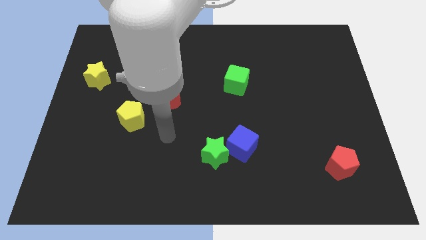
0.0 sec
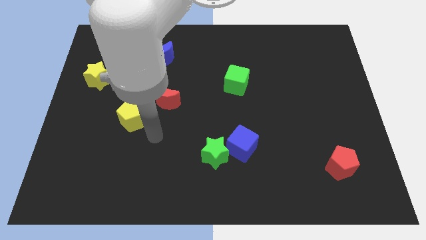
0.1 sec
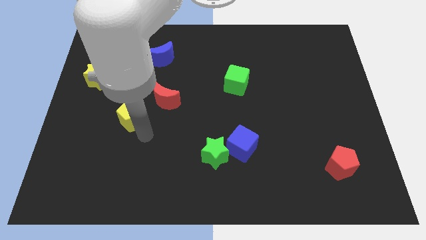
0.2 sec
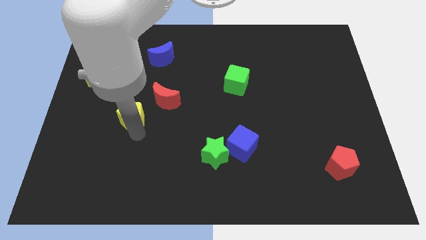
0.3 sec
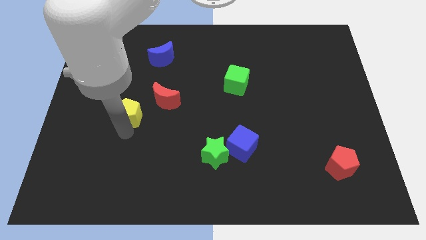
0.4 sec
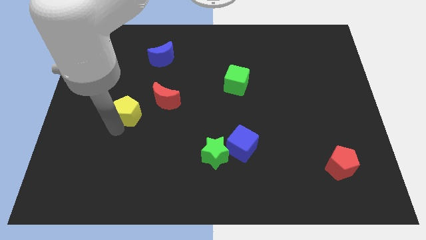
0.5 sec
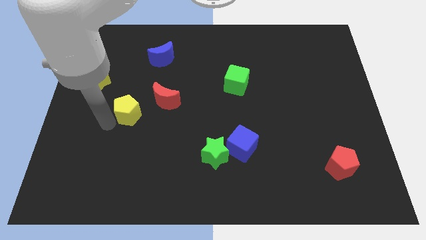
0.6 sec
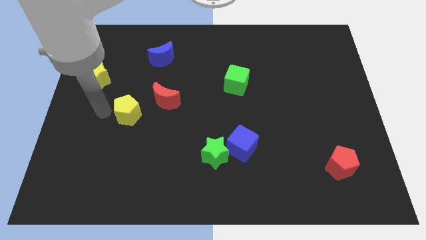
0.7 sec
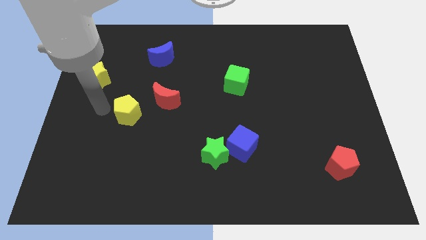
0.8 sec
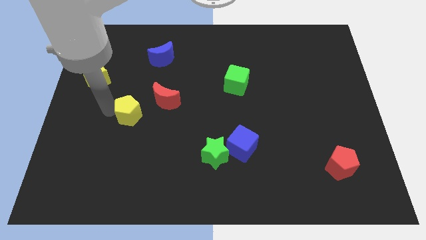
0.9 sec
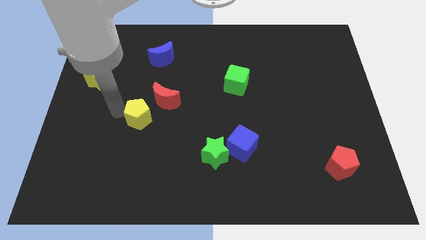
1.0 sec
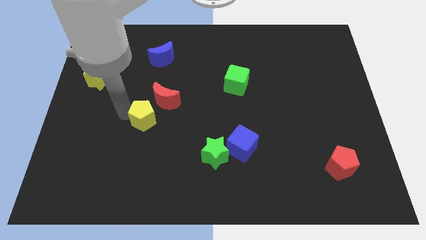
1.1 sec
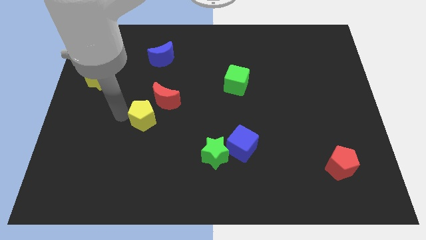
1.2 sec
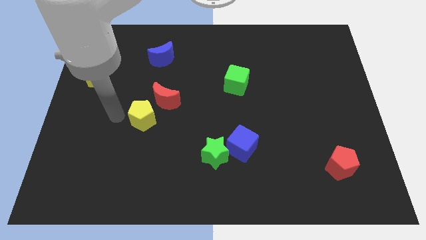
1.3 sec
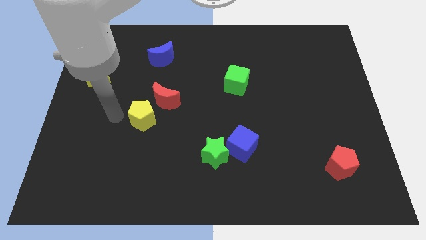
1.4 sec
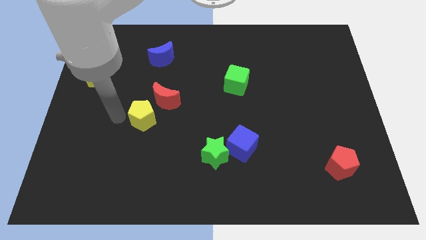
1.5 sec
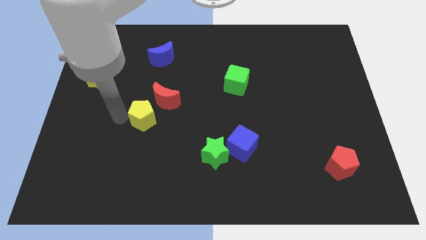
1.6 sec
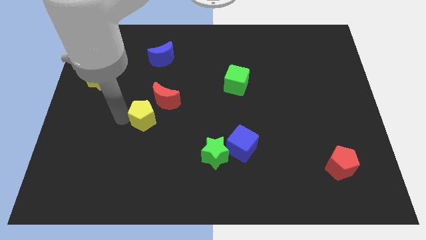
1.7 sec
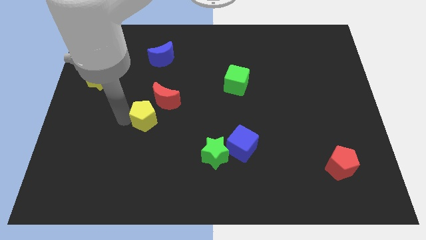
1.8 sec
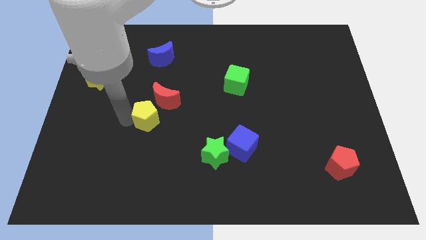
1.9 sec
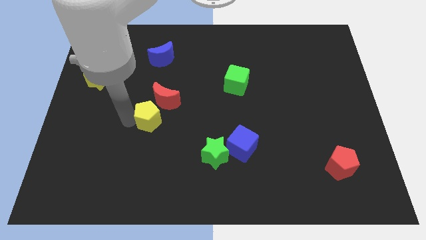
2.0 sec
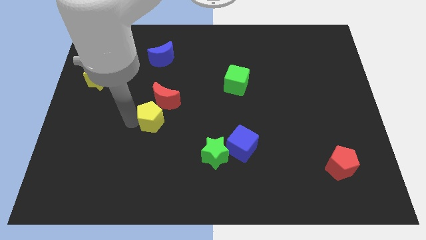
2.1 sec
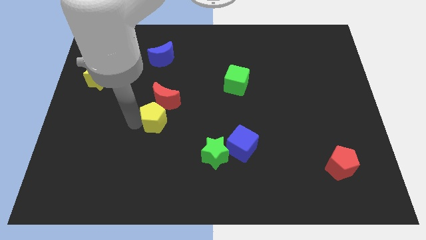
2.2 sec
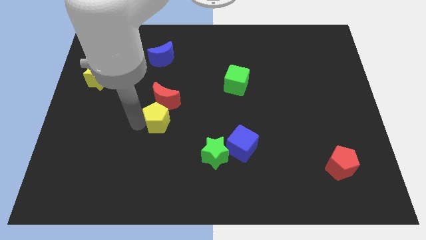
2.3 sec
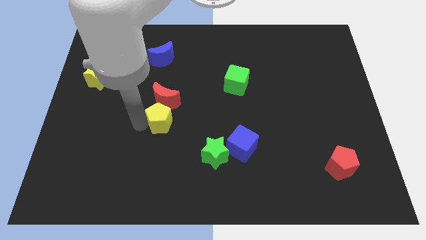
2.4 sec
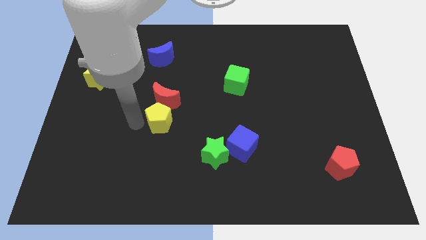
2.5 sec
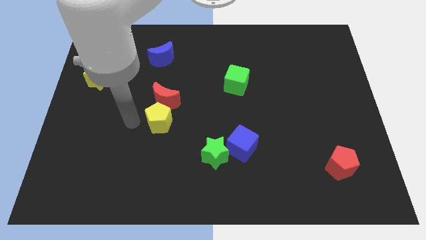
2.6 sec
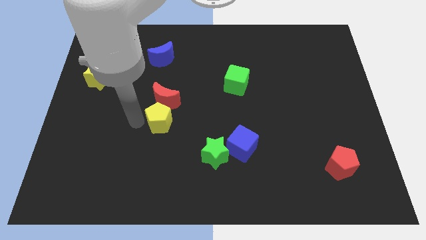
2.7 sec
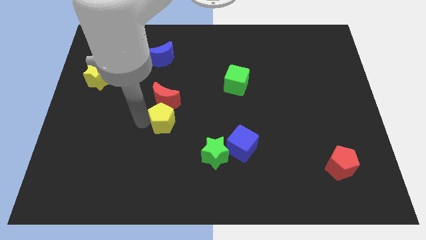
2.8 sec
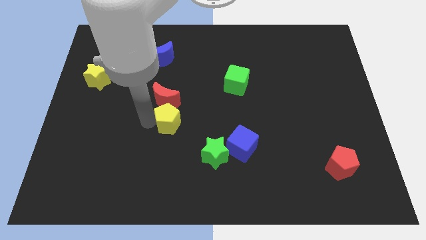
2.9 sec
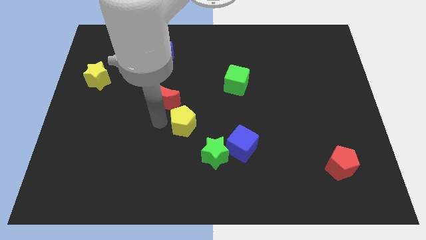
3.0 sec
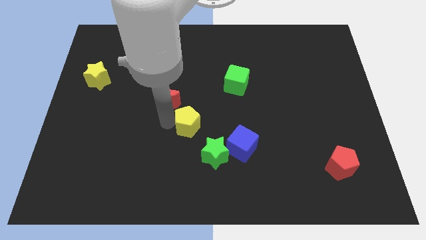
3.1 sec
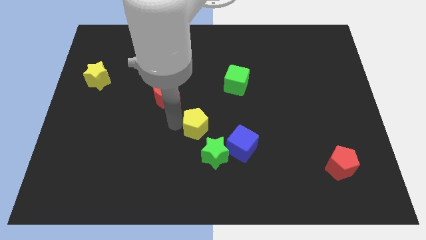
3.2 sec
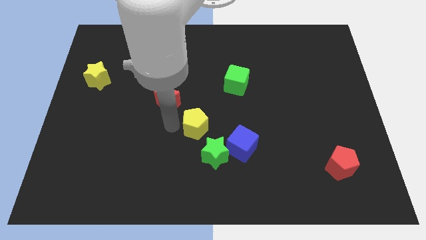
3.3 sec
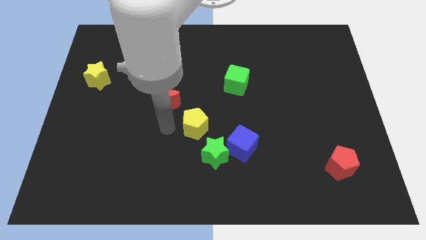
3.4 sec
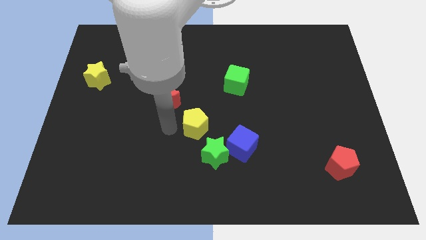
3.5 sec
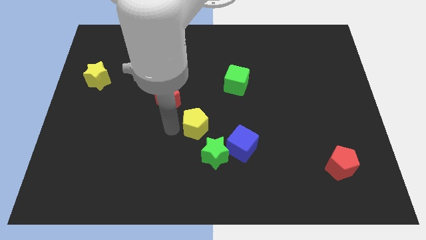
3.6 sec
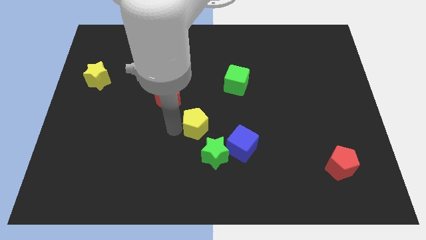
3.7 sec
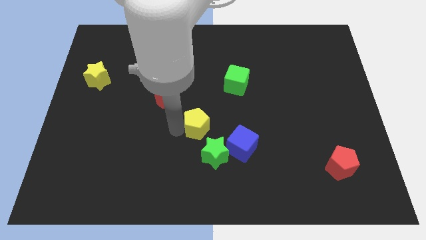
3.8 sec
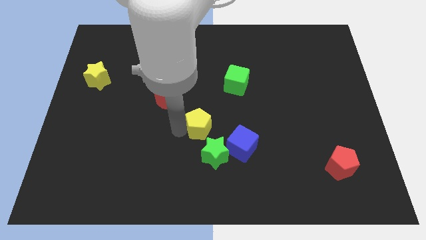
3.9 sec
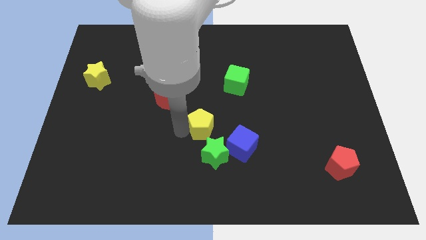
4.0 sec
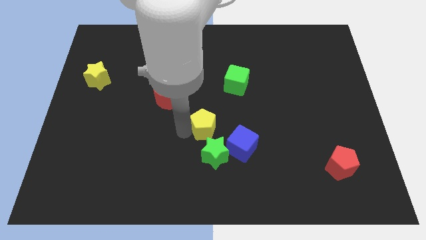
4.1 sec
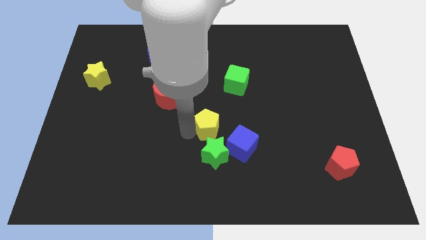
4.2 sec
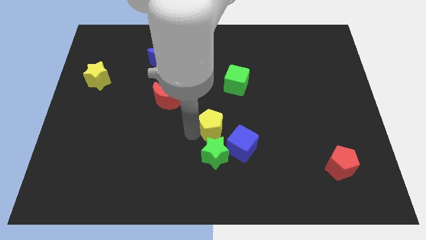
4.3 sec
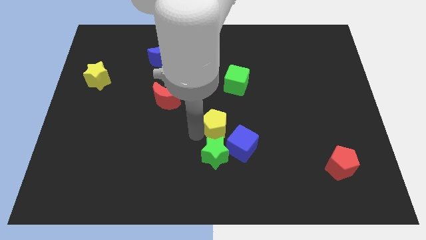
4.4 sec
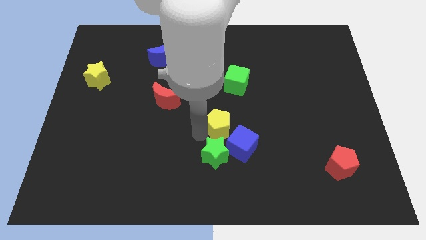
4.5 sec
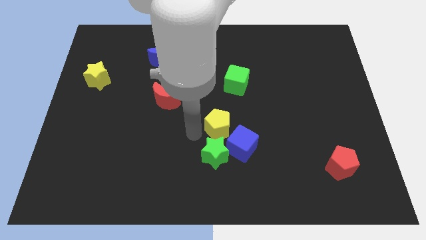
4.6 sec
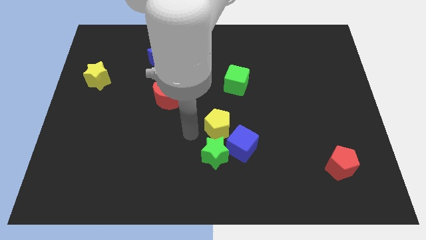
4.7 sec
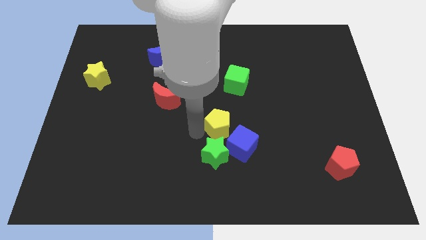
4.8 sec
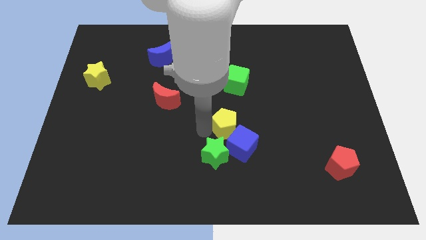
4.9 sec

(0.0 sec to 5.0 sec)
push the yellow pentagon right

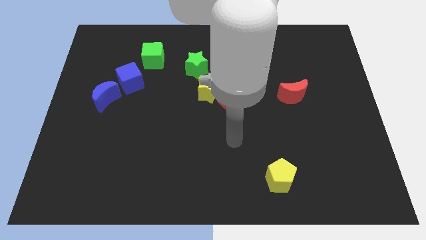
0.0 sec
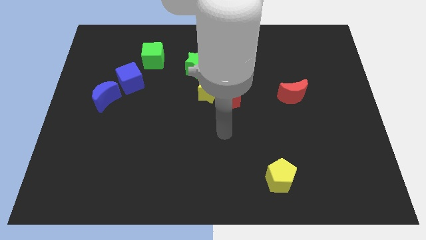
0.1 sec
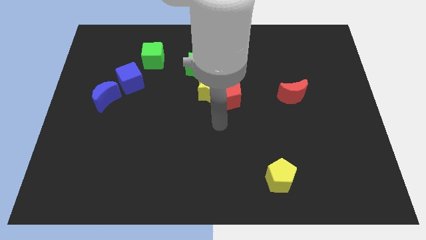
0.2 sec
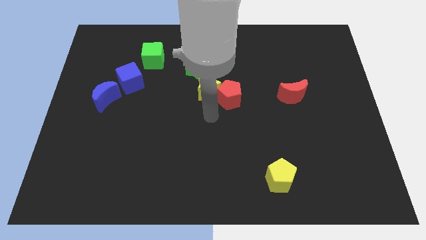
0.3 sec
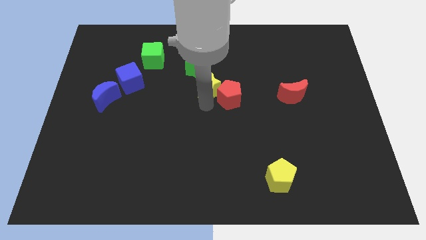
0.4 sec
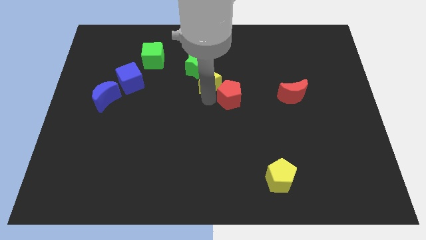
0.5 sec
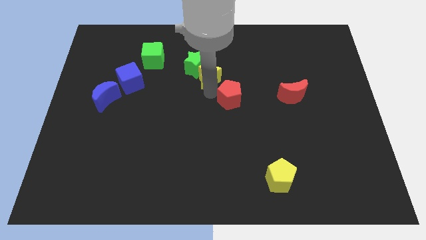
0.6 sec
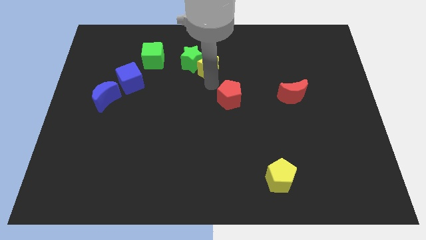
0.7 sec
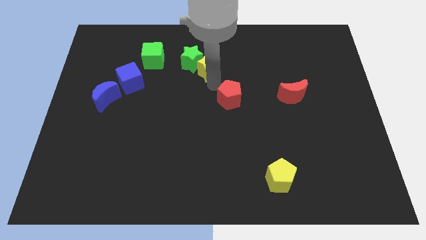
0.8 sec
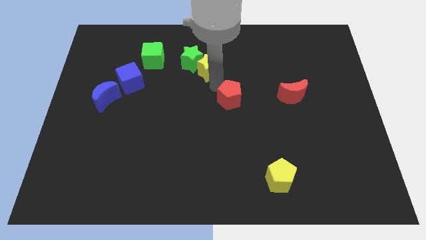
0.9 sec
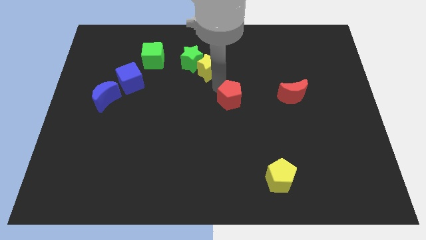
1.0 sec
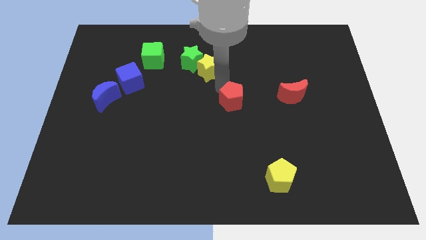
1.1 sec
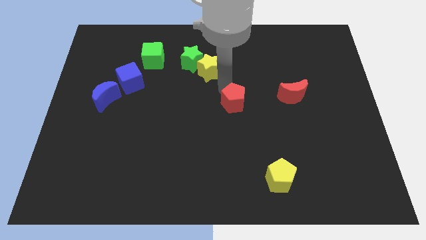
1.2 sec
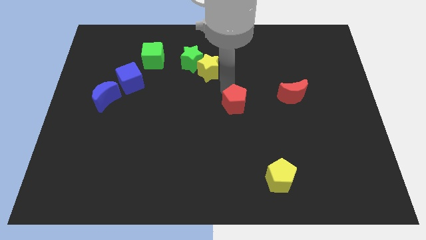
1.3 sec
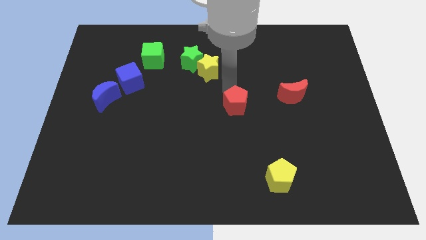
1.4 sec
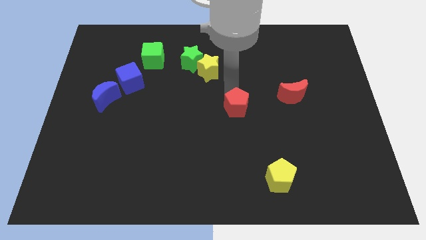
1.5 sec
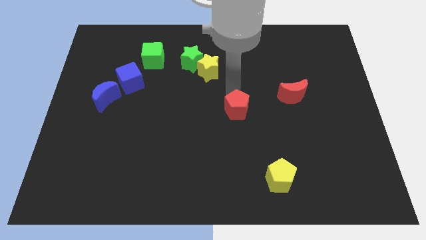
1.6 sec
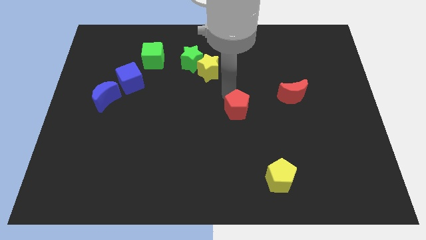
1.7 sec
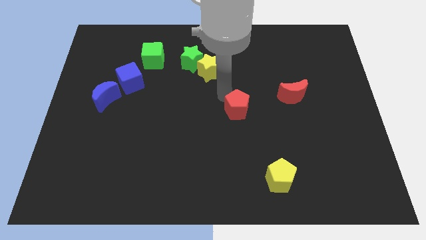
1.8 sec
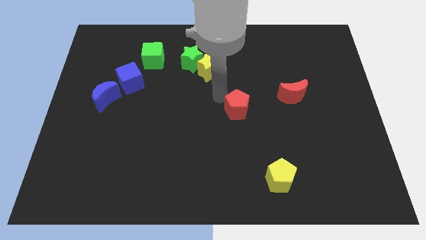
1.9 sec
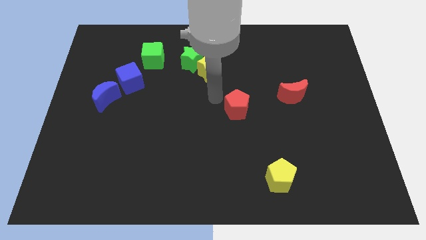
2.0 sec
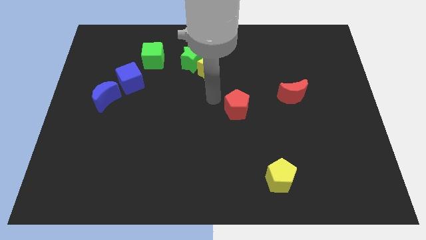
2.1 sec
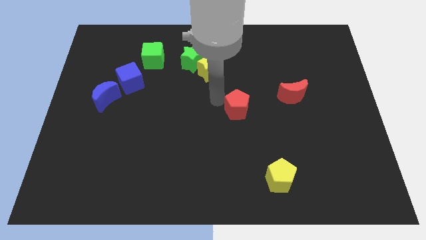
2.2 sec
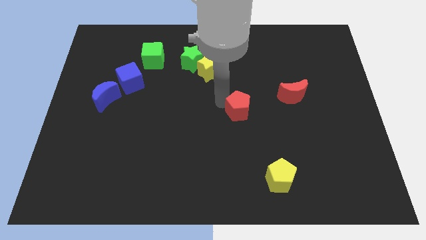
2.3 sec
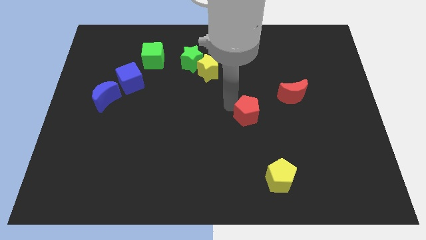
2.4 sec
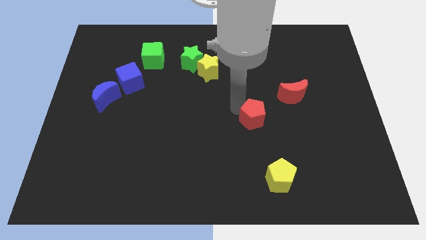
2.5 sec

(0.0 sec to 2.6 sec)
slightly slide the red pentagon down and to the right diagonally

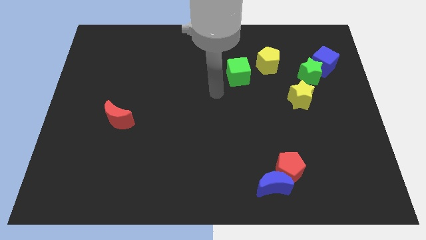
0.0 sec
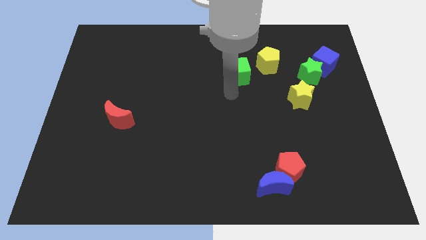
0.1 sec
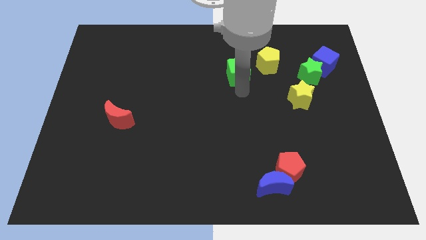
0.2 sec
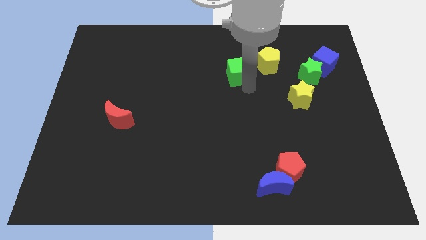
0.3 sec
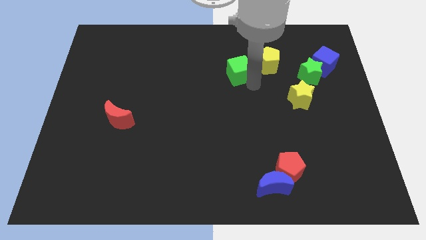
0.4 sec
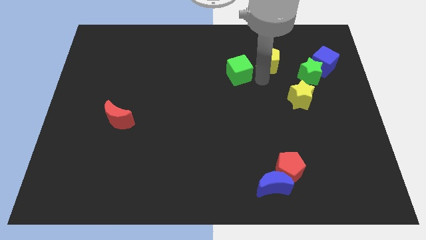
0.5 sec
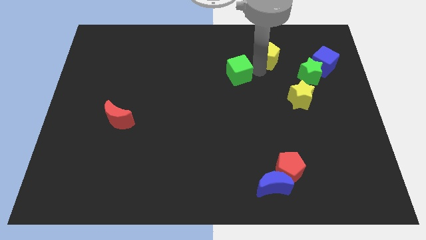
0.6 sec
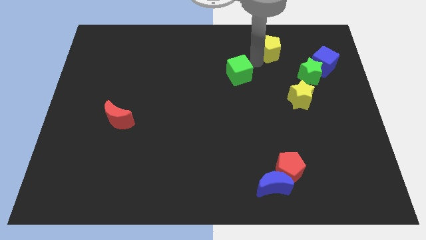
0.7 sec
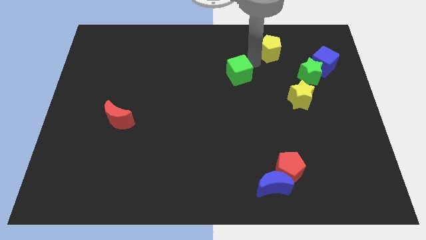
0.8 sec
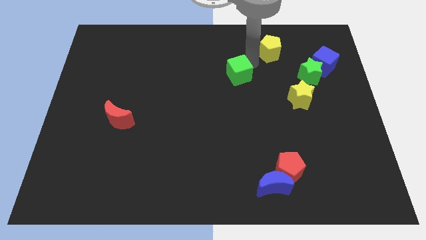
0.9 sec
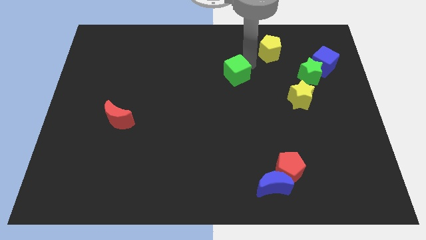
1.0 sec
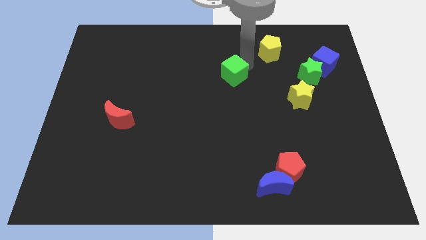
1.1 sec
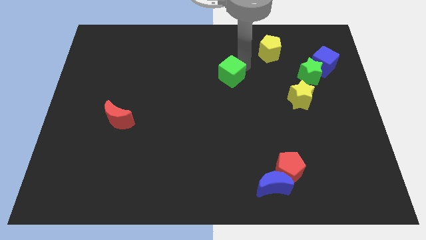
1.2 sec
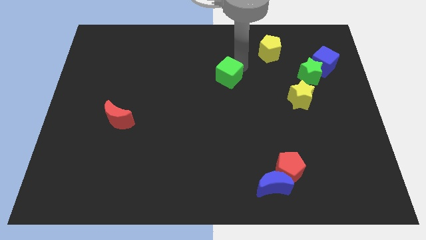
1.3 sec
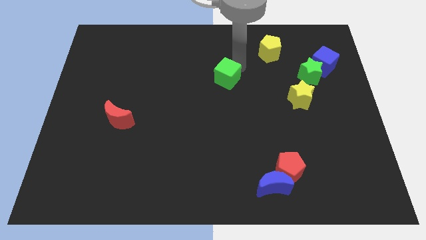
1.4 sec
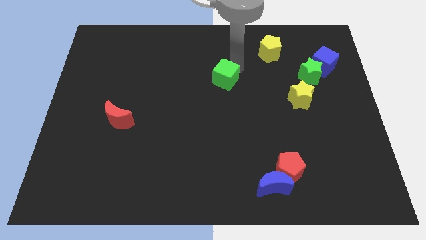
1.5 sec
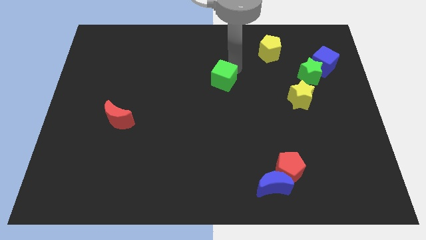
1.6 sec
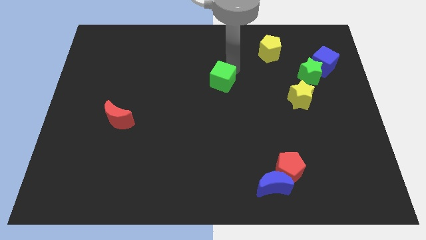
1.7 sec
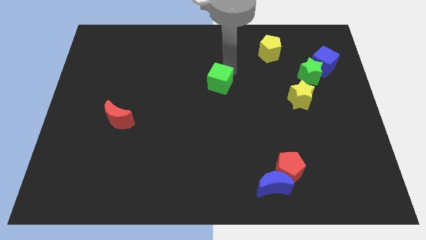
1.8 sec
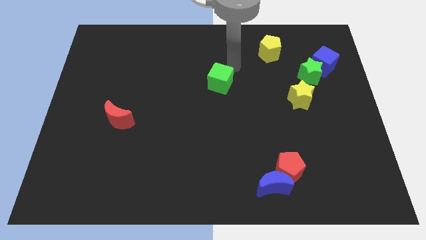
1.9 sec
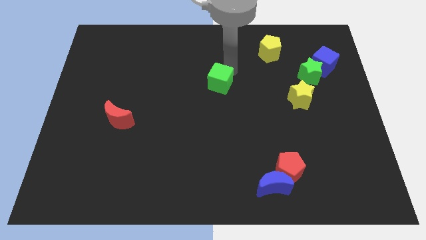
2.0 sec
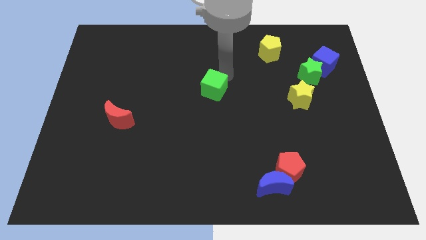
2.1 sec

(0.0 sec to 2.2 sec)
push the green cube a little bit downwards and left diagonally
